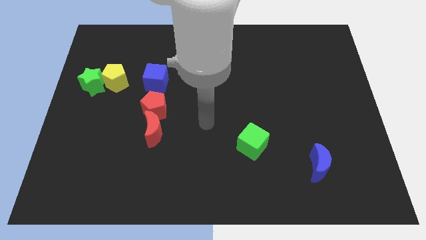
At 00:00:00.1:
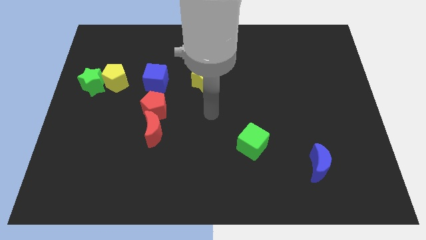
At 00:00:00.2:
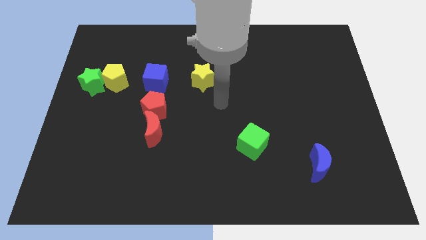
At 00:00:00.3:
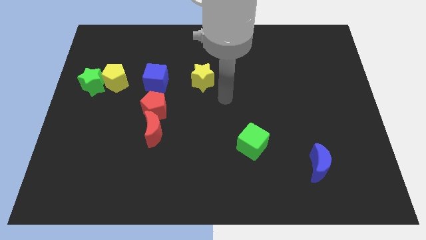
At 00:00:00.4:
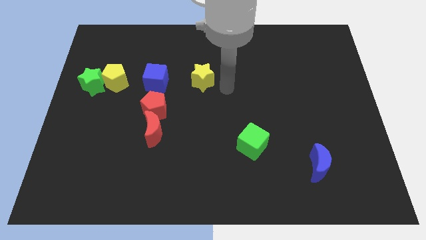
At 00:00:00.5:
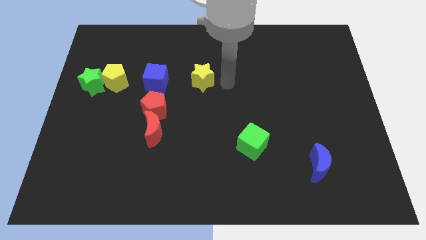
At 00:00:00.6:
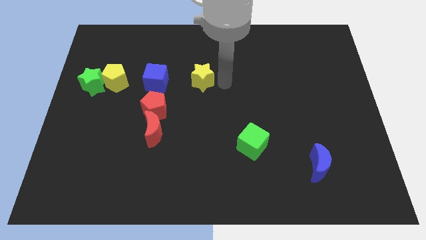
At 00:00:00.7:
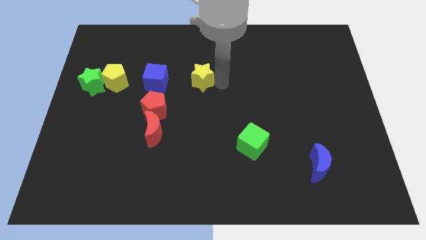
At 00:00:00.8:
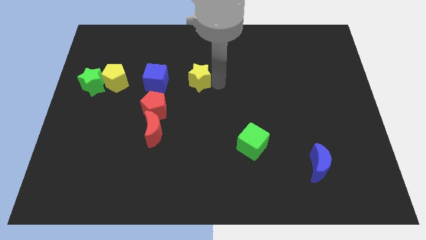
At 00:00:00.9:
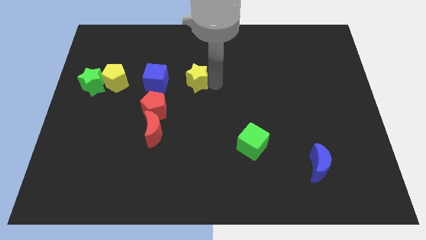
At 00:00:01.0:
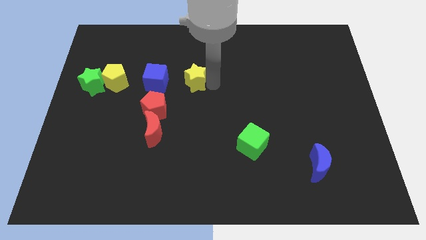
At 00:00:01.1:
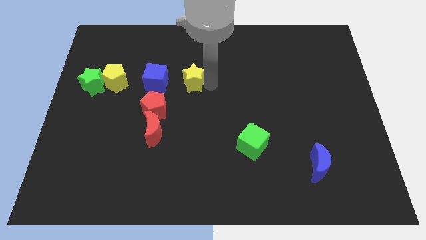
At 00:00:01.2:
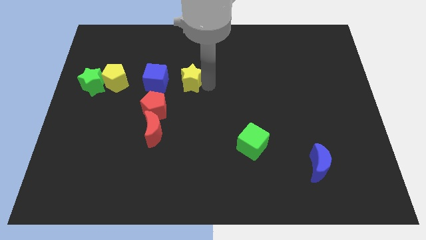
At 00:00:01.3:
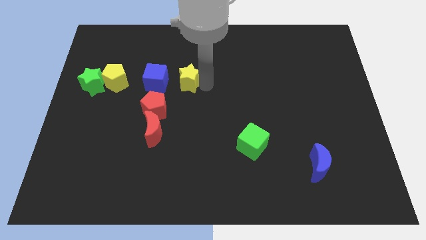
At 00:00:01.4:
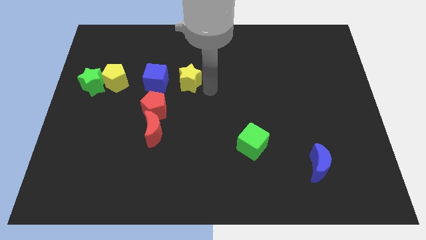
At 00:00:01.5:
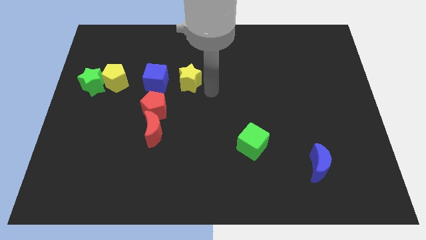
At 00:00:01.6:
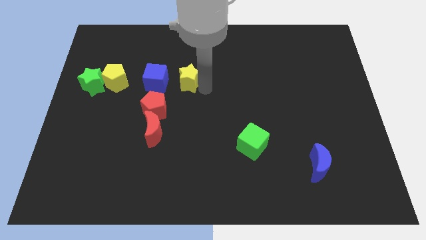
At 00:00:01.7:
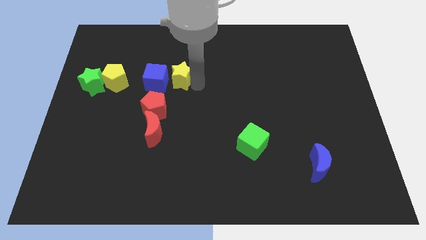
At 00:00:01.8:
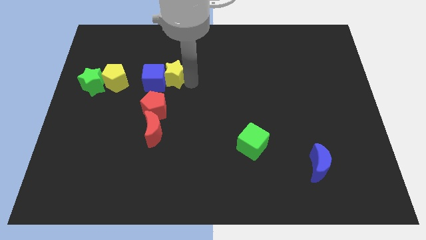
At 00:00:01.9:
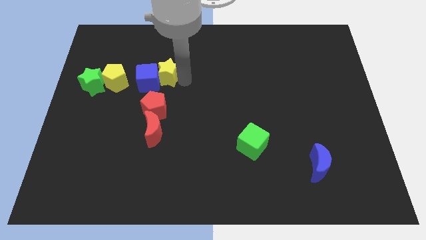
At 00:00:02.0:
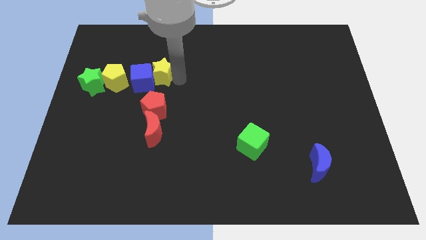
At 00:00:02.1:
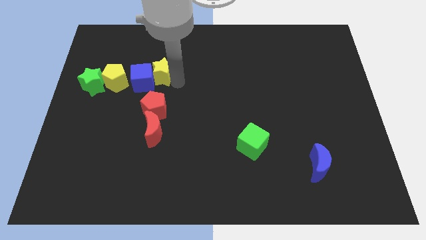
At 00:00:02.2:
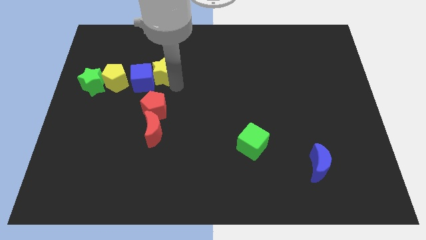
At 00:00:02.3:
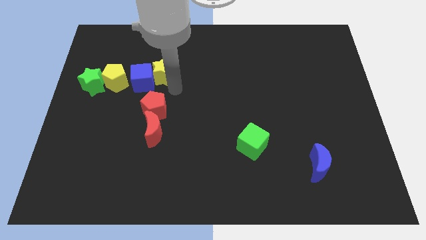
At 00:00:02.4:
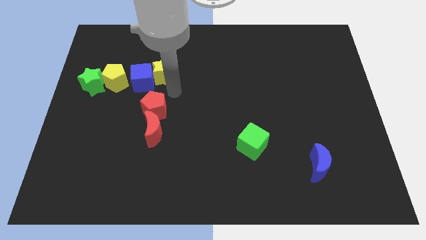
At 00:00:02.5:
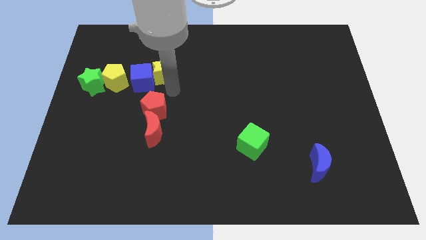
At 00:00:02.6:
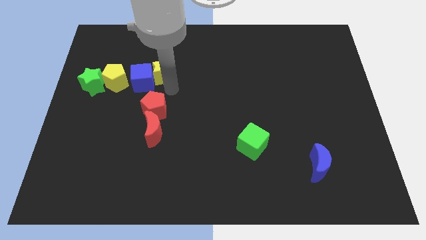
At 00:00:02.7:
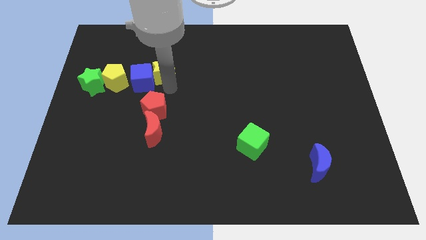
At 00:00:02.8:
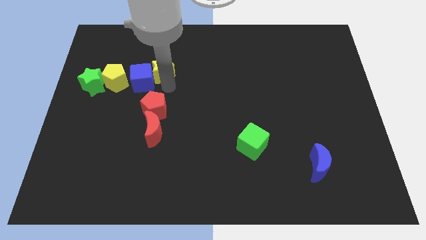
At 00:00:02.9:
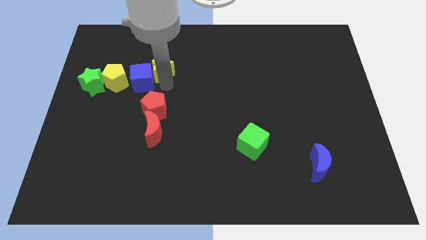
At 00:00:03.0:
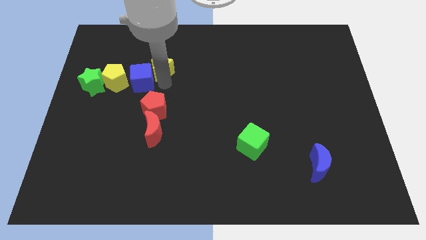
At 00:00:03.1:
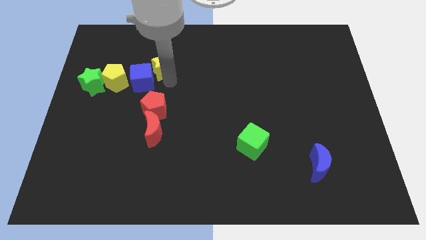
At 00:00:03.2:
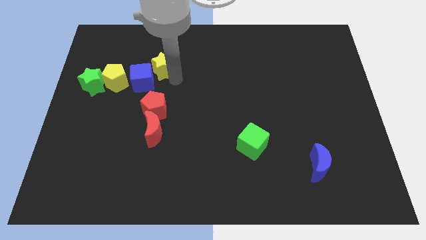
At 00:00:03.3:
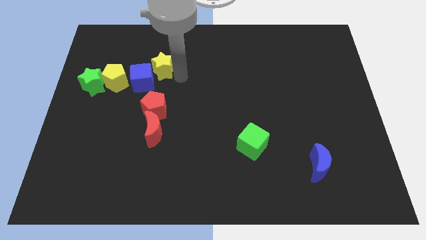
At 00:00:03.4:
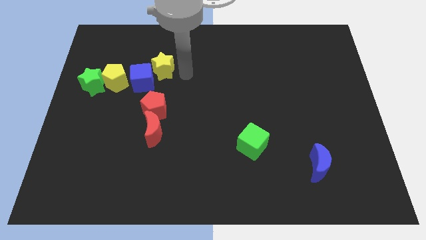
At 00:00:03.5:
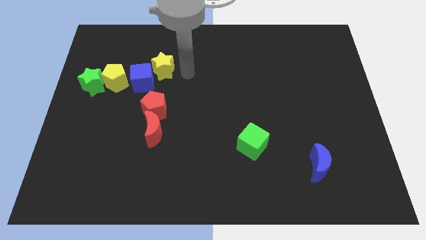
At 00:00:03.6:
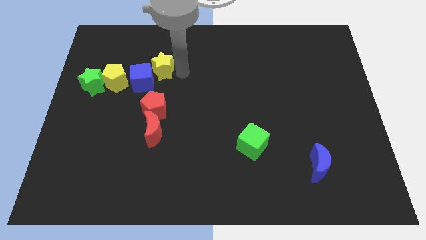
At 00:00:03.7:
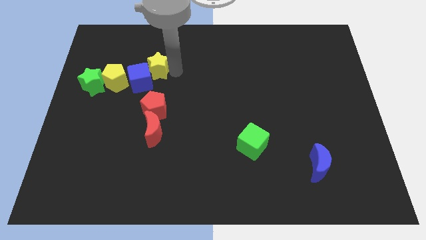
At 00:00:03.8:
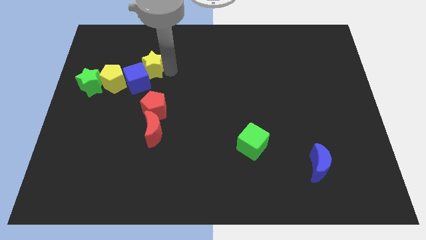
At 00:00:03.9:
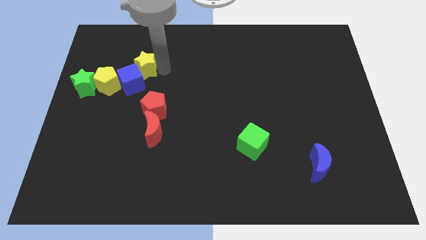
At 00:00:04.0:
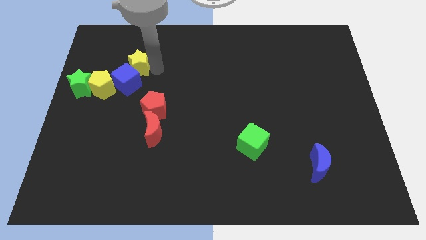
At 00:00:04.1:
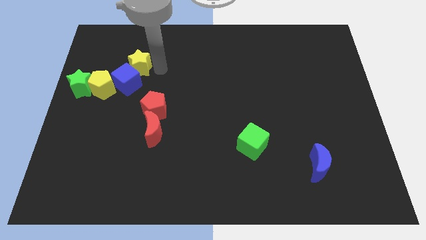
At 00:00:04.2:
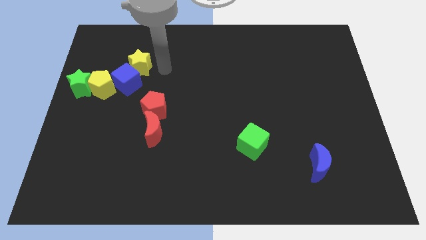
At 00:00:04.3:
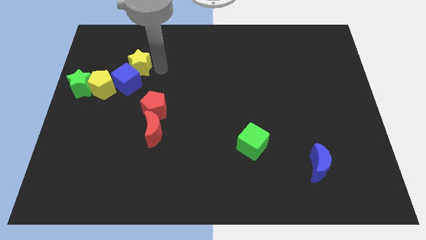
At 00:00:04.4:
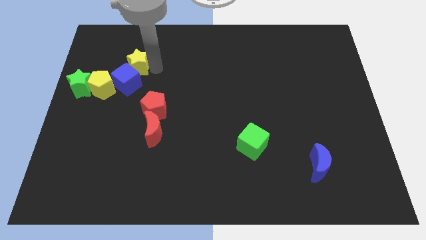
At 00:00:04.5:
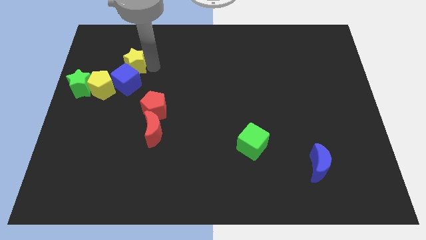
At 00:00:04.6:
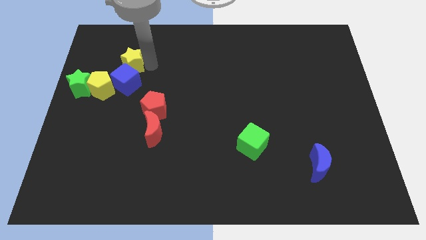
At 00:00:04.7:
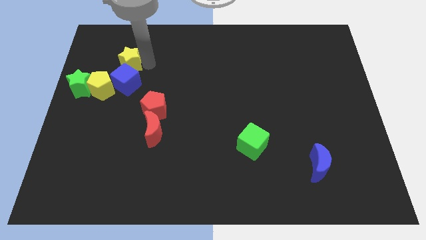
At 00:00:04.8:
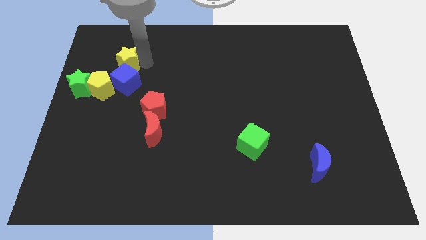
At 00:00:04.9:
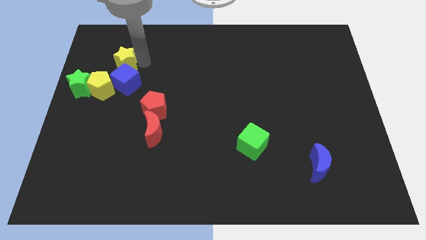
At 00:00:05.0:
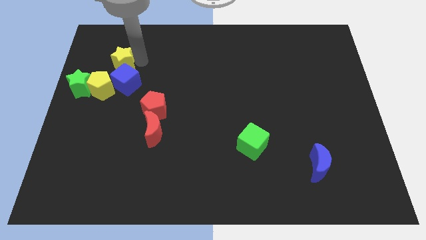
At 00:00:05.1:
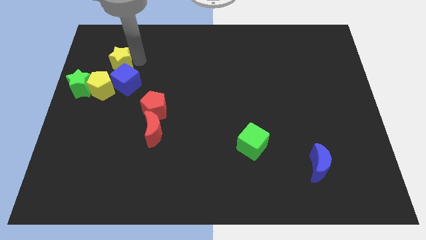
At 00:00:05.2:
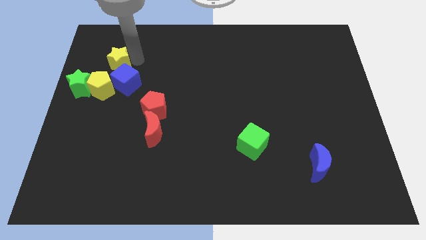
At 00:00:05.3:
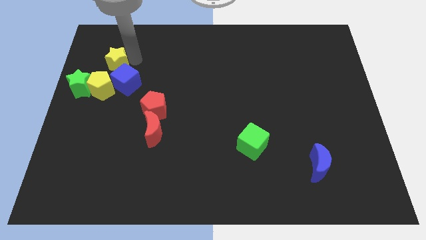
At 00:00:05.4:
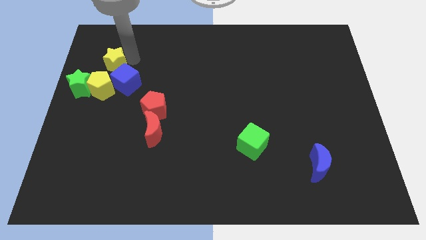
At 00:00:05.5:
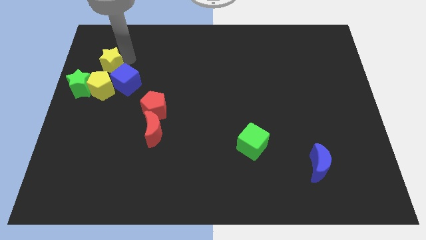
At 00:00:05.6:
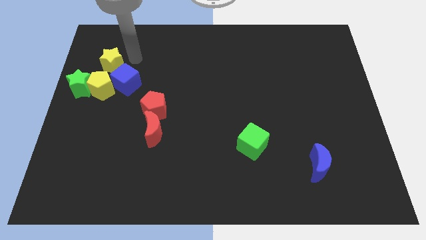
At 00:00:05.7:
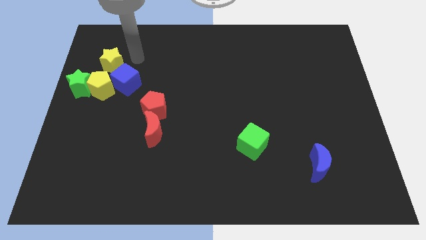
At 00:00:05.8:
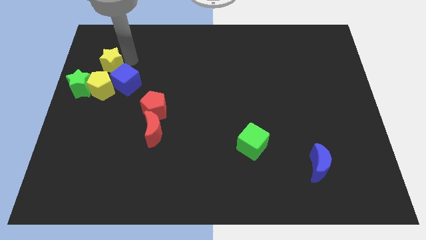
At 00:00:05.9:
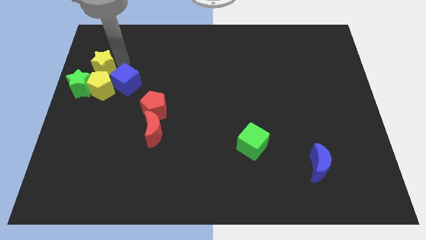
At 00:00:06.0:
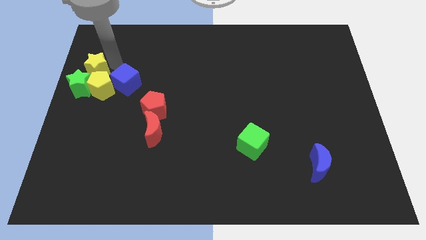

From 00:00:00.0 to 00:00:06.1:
move the yellow star to the left side

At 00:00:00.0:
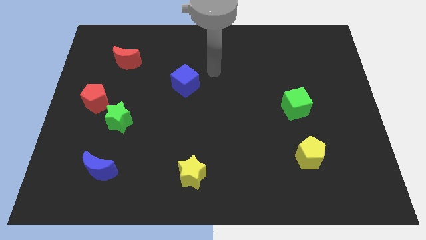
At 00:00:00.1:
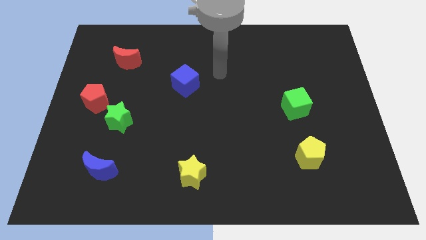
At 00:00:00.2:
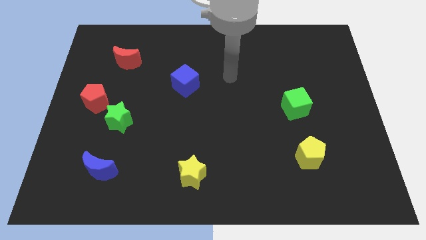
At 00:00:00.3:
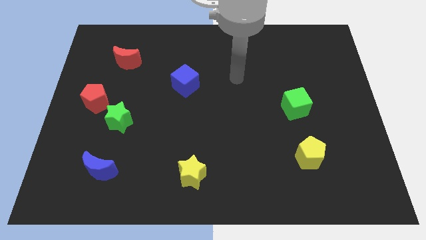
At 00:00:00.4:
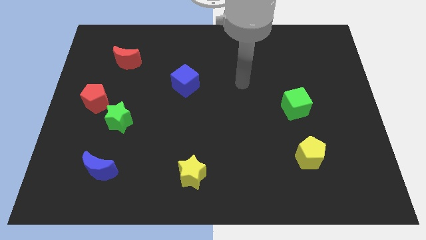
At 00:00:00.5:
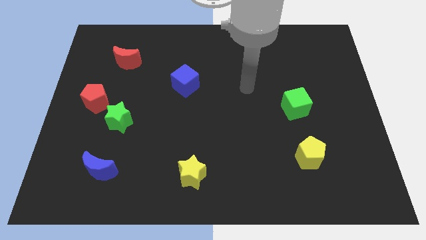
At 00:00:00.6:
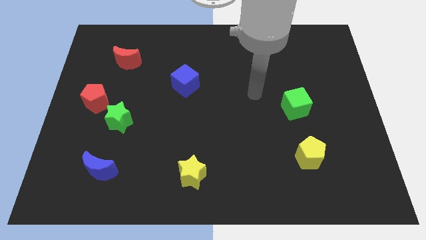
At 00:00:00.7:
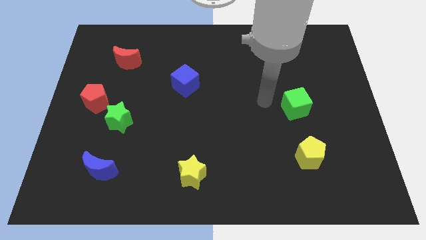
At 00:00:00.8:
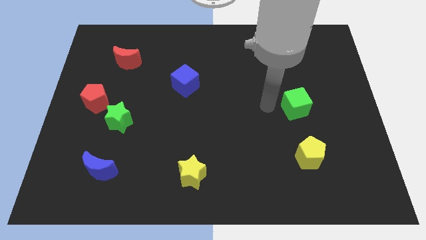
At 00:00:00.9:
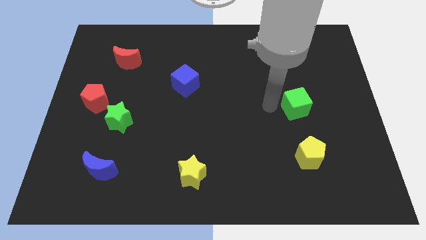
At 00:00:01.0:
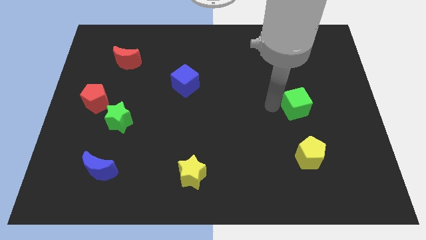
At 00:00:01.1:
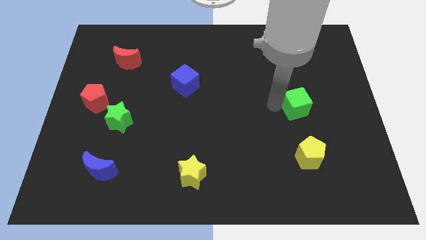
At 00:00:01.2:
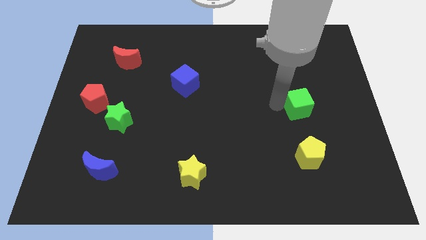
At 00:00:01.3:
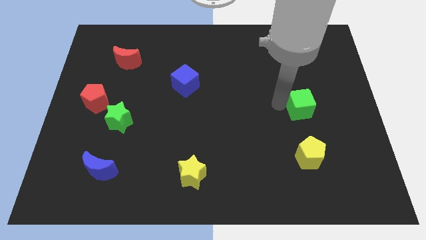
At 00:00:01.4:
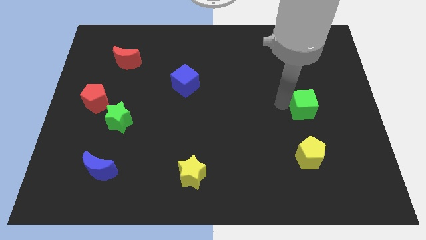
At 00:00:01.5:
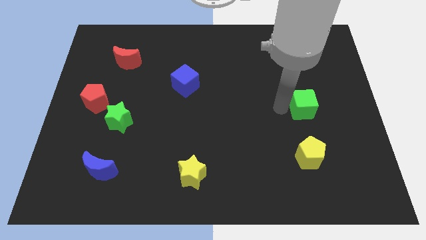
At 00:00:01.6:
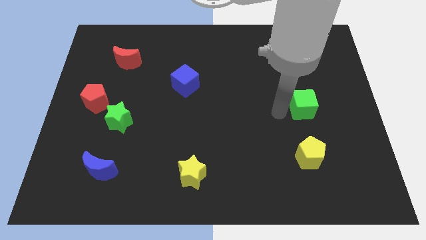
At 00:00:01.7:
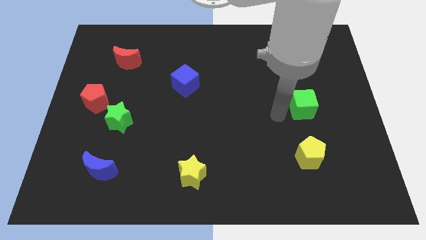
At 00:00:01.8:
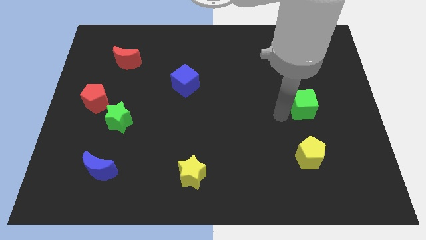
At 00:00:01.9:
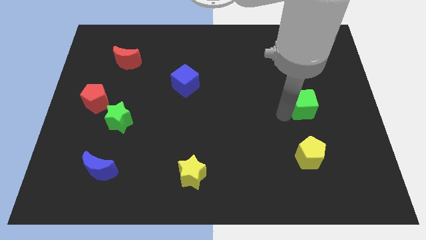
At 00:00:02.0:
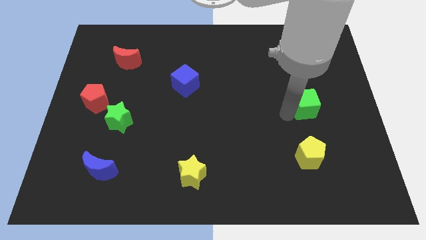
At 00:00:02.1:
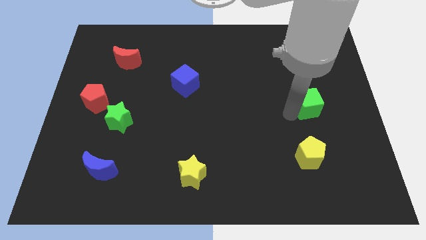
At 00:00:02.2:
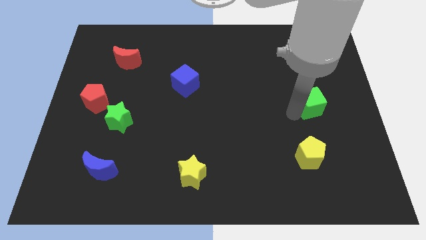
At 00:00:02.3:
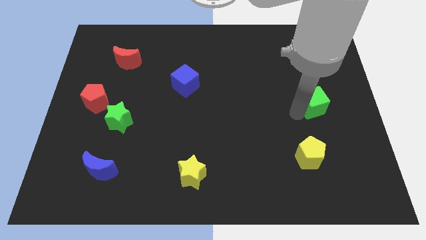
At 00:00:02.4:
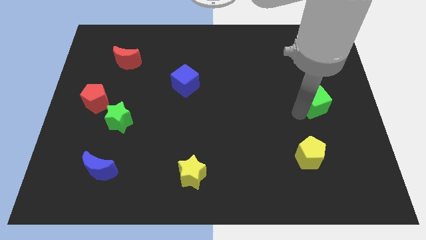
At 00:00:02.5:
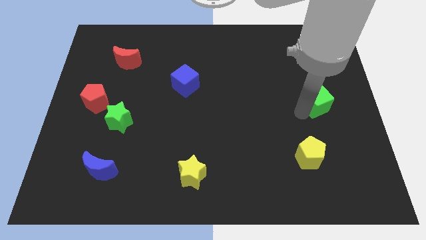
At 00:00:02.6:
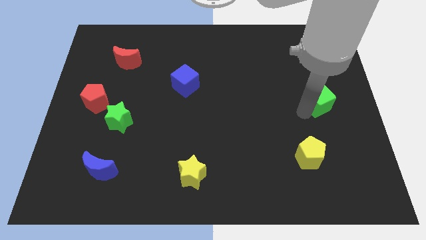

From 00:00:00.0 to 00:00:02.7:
push the green cube to the right side of the board
